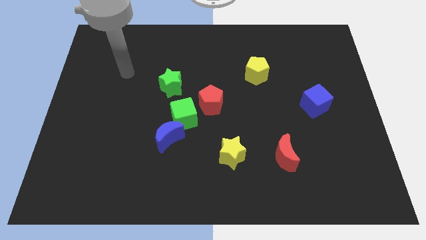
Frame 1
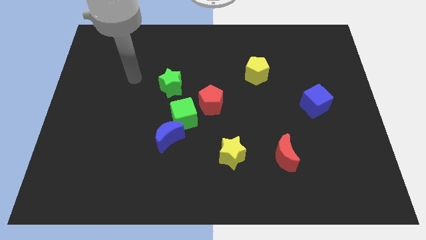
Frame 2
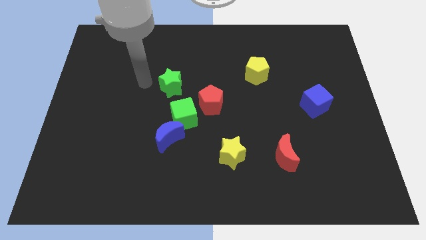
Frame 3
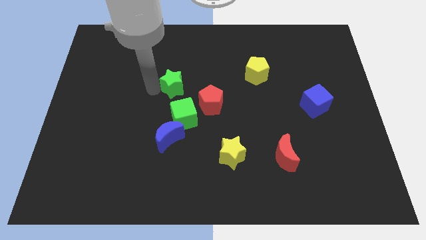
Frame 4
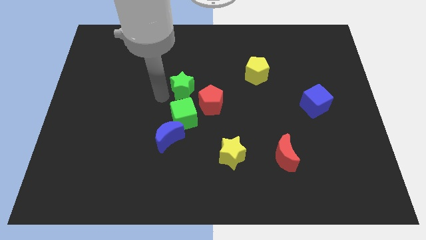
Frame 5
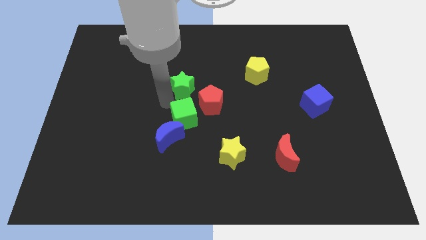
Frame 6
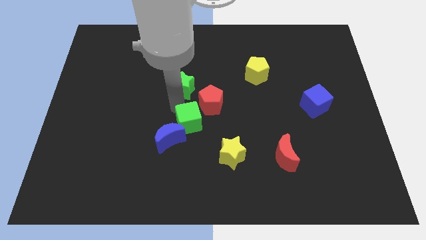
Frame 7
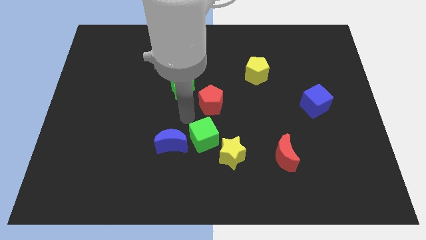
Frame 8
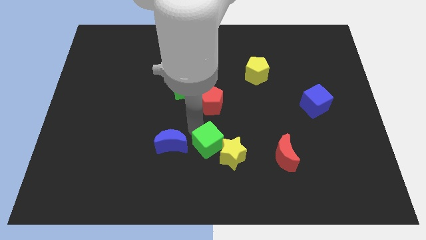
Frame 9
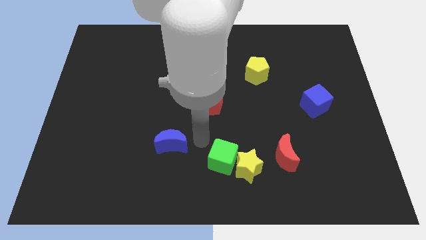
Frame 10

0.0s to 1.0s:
pull the blue moon apart from the green cube

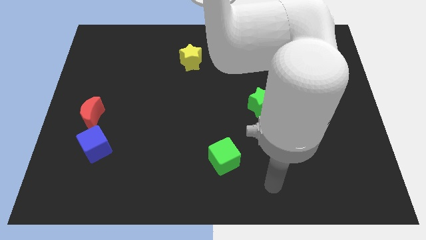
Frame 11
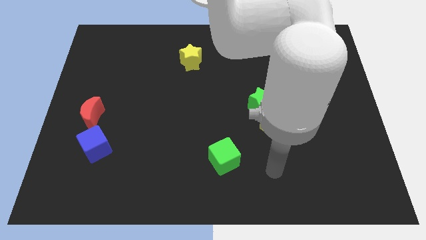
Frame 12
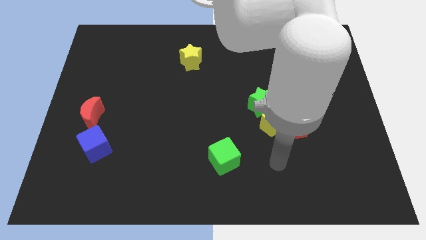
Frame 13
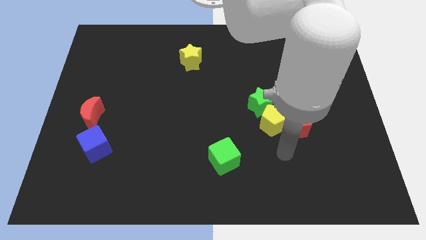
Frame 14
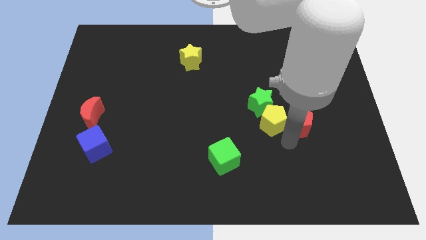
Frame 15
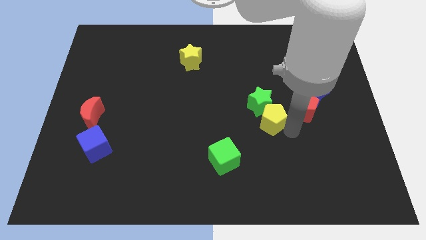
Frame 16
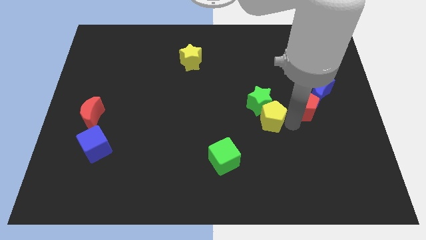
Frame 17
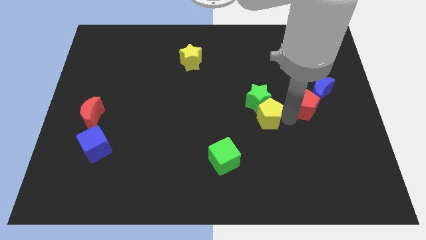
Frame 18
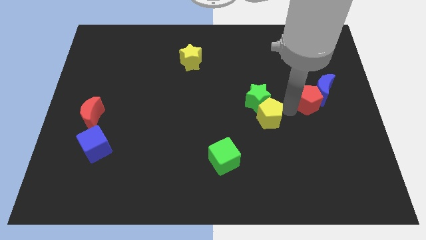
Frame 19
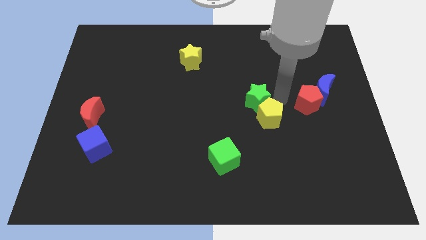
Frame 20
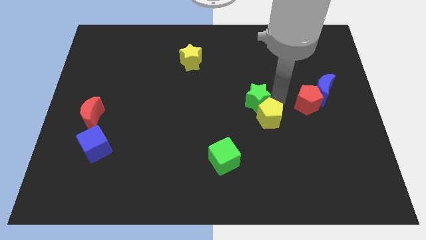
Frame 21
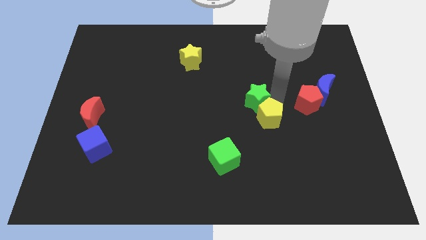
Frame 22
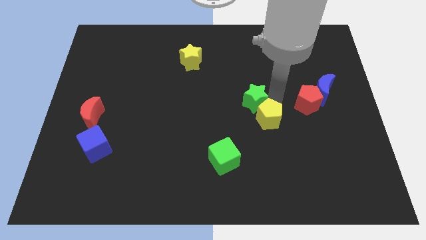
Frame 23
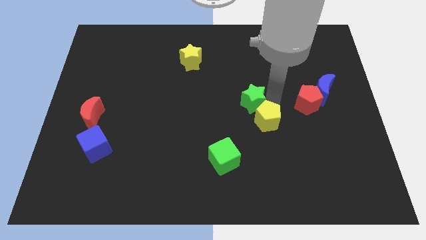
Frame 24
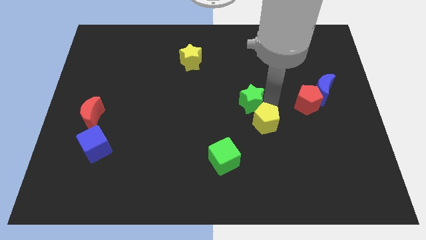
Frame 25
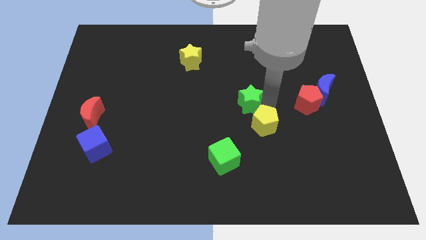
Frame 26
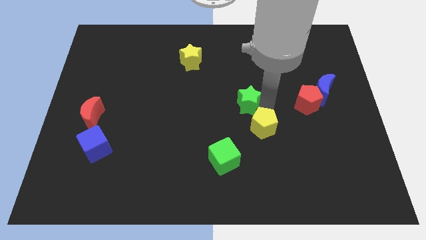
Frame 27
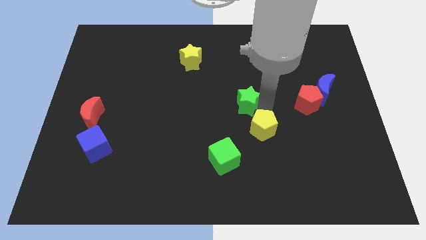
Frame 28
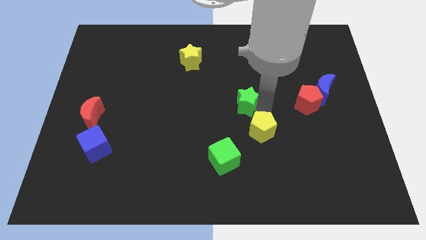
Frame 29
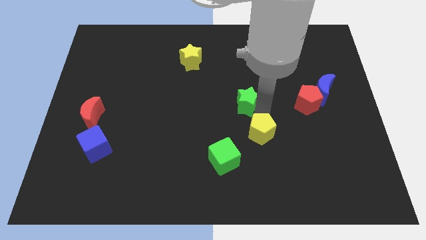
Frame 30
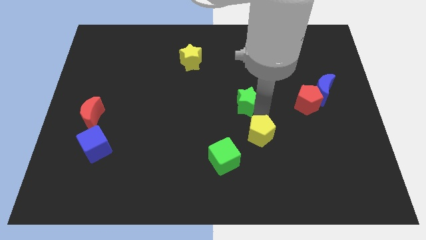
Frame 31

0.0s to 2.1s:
pull the yellow pentagon apart from the green star and red pentagon

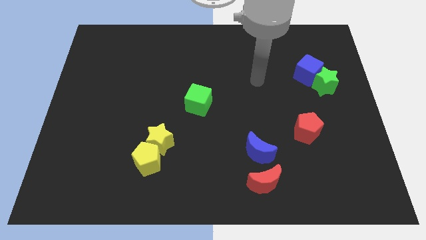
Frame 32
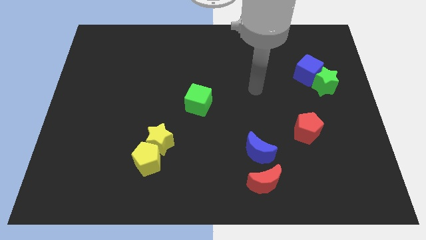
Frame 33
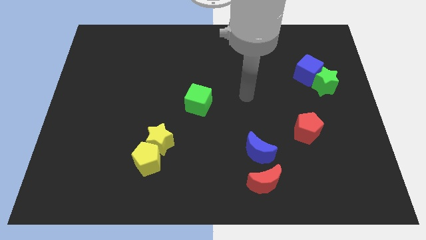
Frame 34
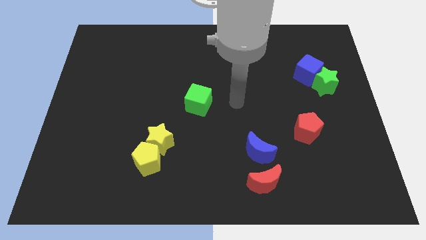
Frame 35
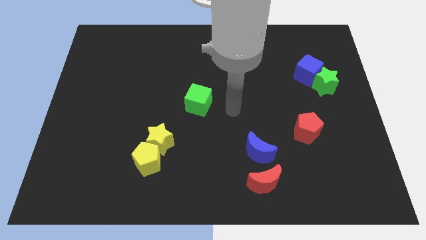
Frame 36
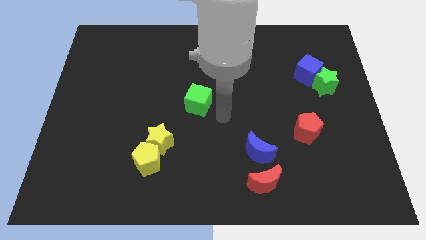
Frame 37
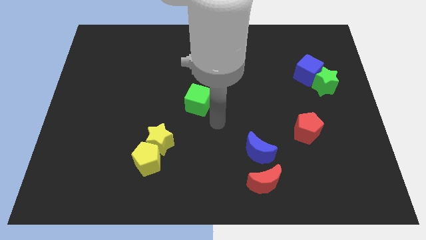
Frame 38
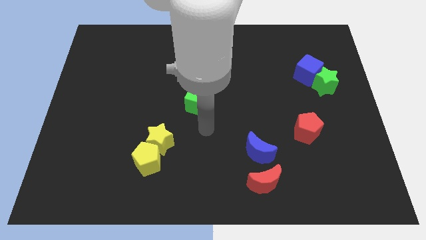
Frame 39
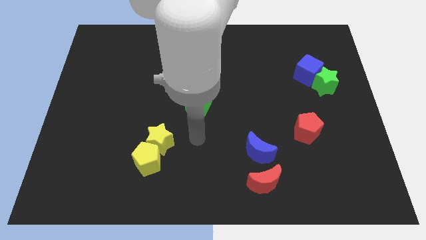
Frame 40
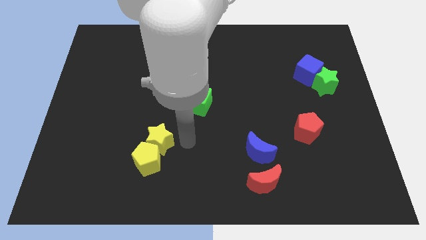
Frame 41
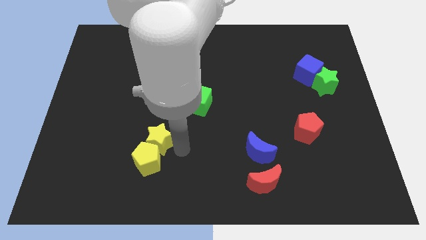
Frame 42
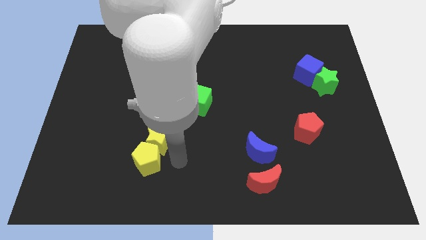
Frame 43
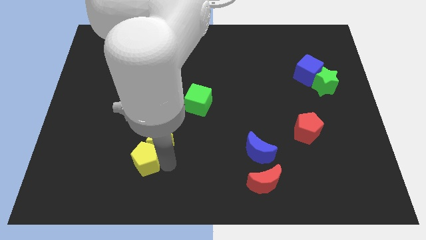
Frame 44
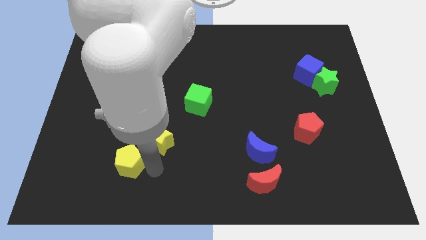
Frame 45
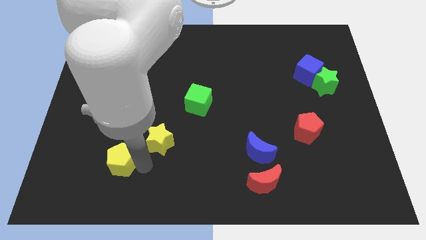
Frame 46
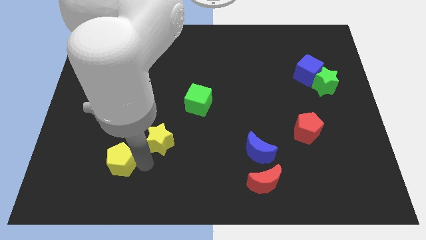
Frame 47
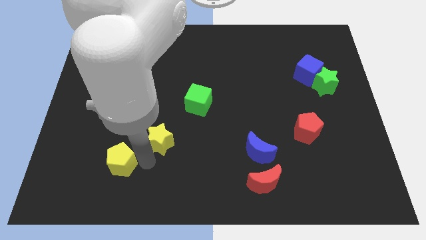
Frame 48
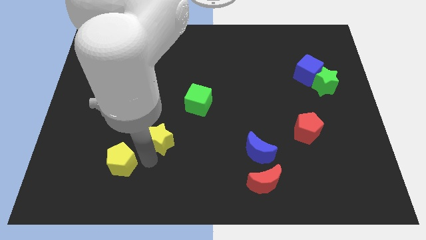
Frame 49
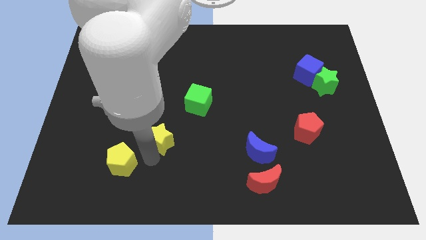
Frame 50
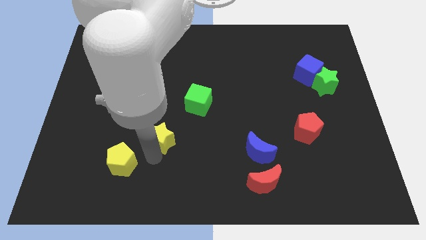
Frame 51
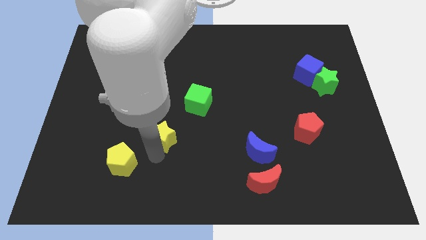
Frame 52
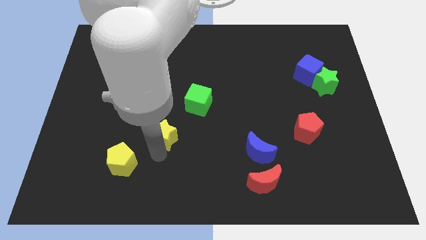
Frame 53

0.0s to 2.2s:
move the yellow star away from the yellow pentagon

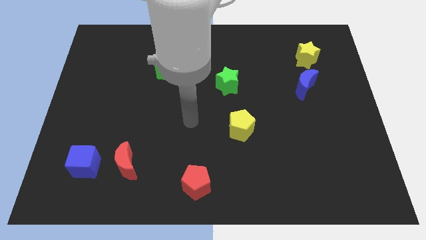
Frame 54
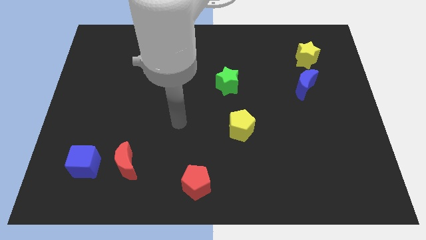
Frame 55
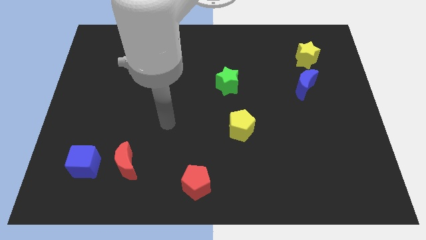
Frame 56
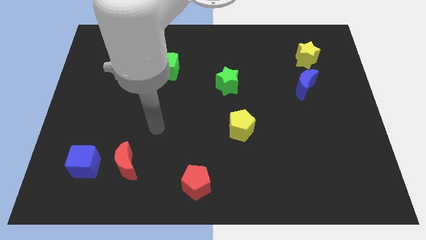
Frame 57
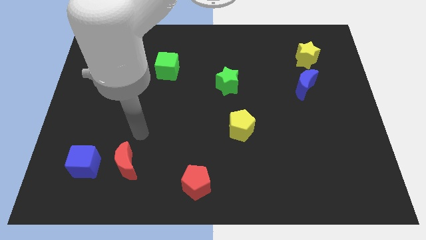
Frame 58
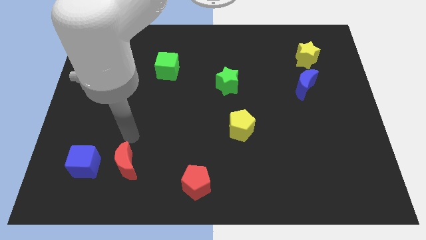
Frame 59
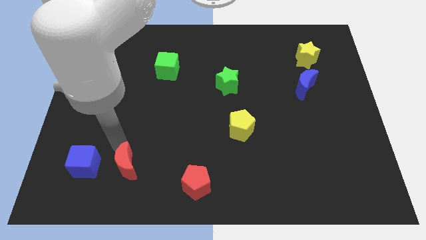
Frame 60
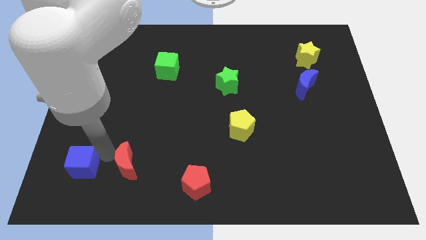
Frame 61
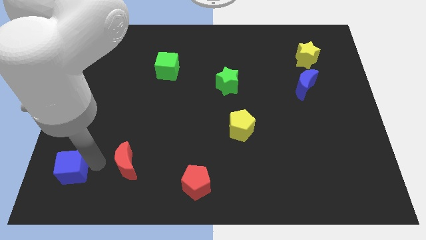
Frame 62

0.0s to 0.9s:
separate the red moon from the blue cube

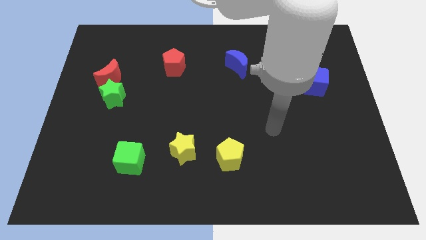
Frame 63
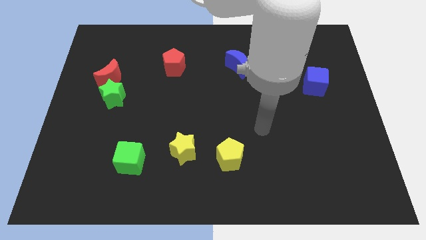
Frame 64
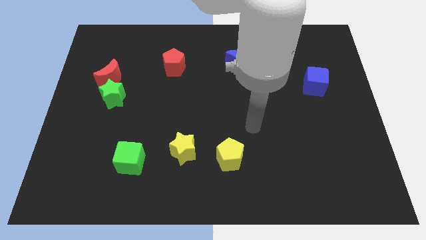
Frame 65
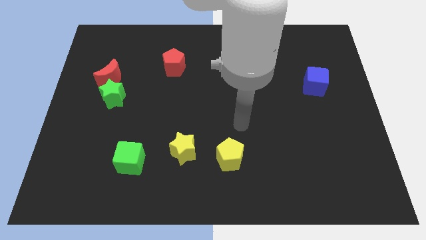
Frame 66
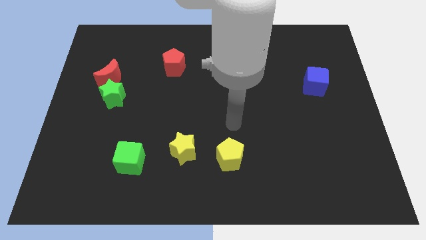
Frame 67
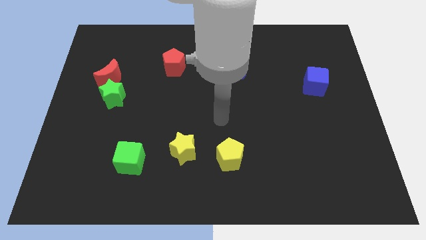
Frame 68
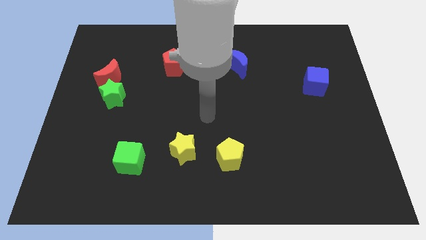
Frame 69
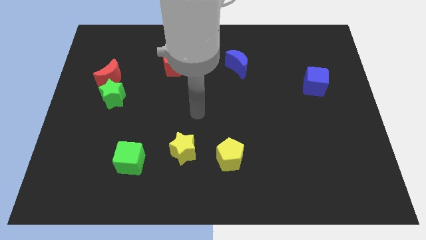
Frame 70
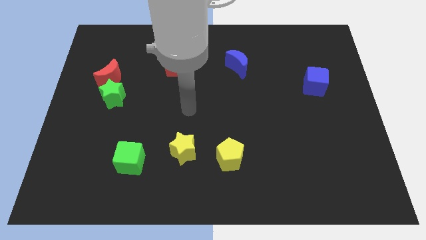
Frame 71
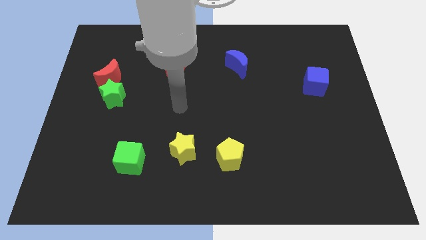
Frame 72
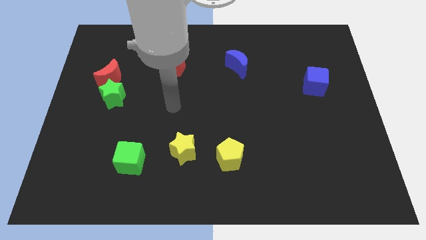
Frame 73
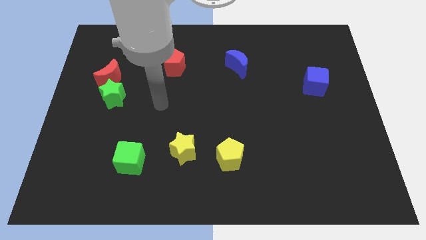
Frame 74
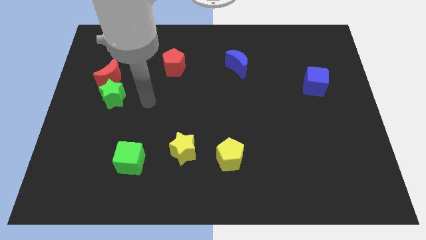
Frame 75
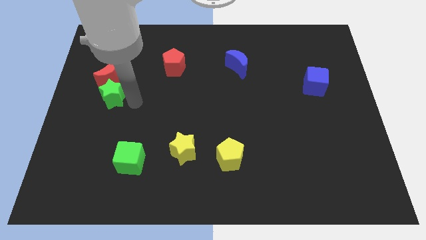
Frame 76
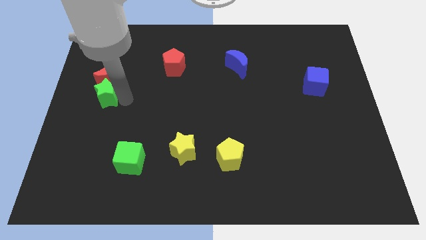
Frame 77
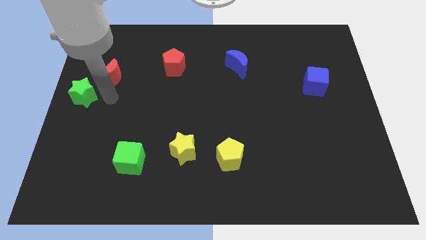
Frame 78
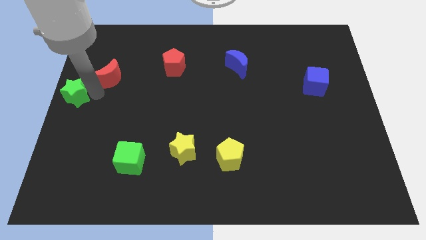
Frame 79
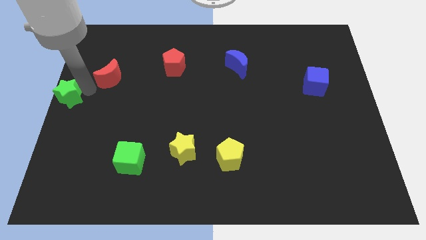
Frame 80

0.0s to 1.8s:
move the red moon away from the green star

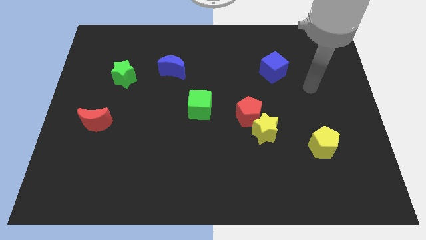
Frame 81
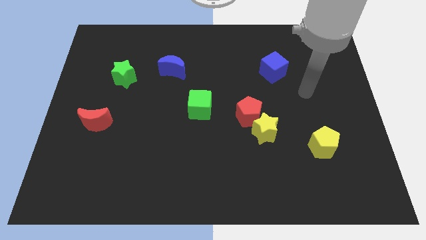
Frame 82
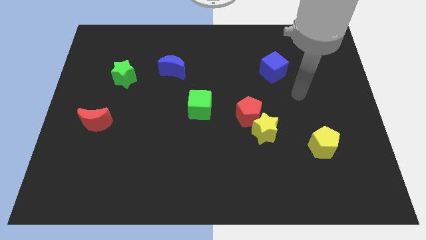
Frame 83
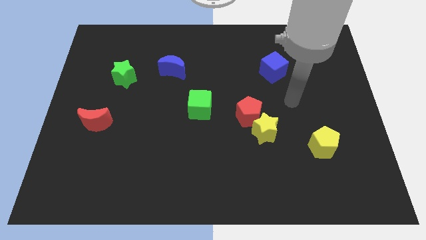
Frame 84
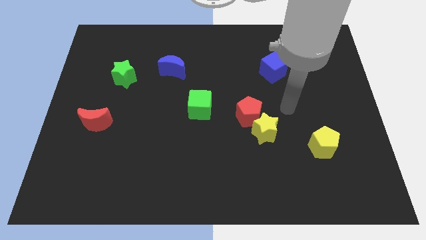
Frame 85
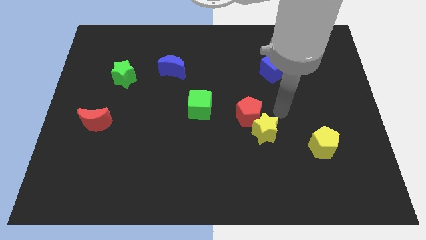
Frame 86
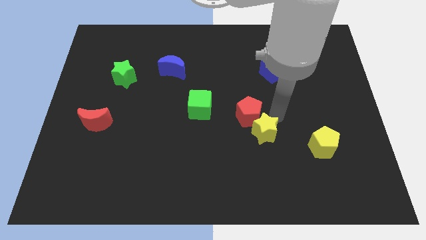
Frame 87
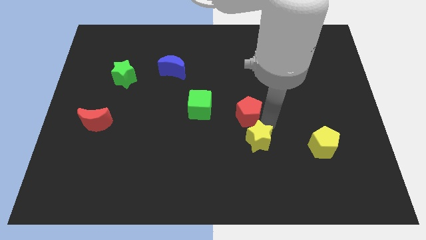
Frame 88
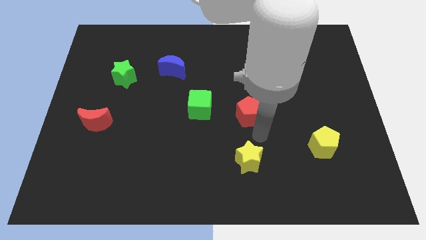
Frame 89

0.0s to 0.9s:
move the red pentagon away from the yellow star

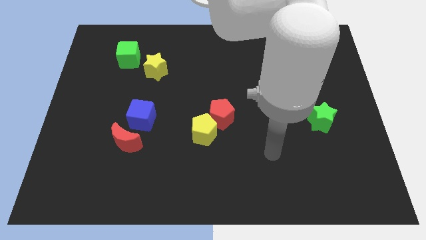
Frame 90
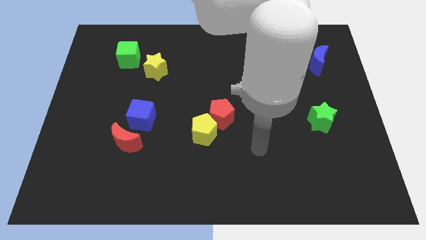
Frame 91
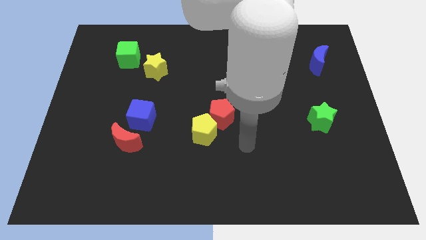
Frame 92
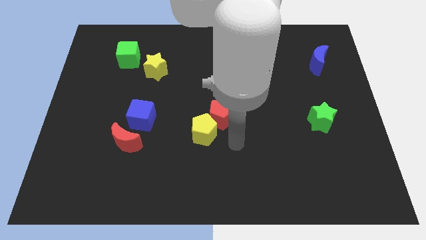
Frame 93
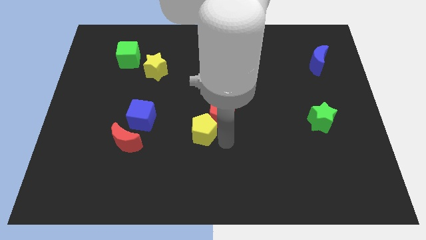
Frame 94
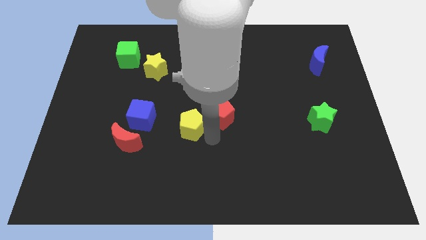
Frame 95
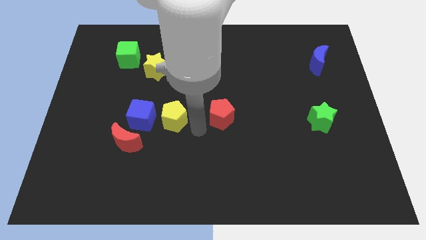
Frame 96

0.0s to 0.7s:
pull the red pentagon apart from the yellow pentagon
